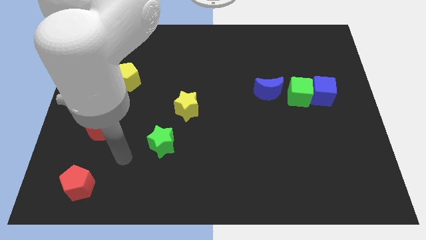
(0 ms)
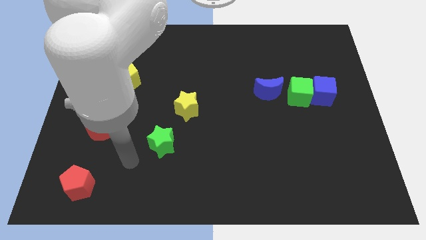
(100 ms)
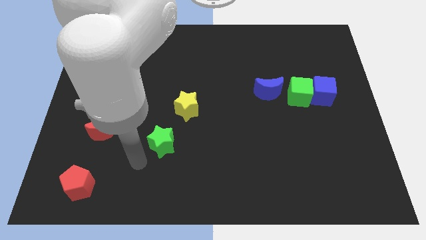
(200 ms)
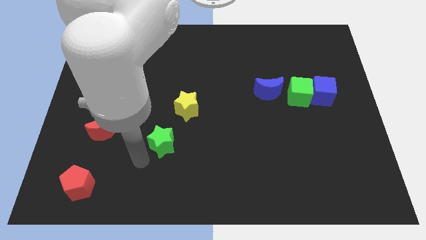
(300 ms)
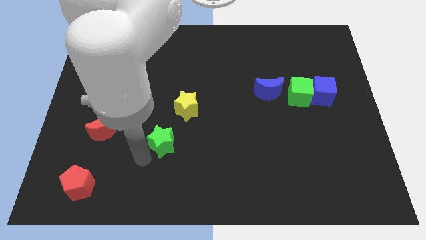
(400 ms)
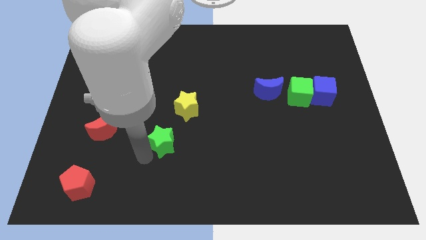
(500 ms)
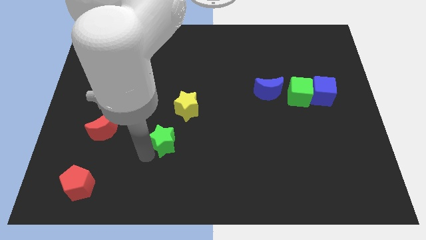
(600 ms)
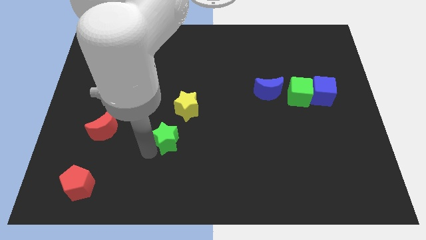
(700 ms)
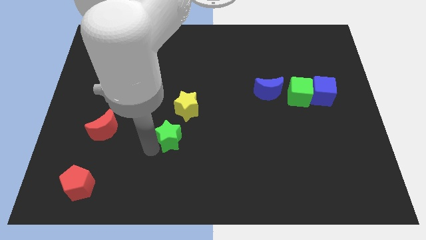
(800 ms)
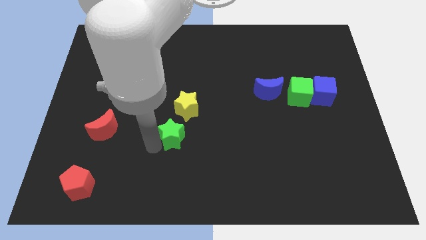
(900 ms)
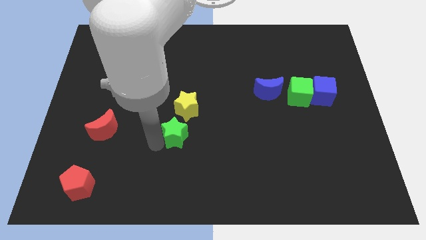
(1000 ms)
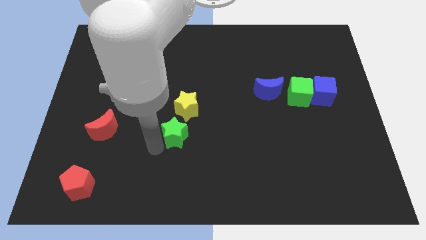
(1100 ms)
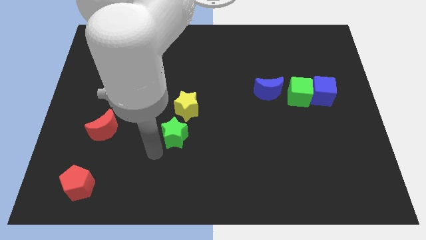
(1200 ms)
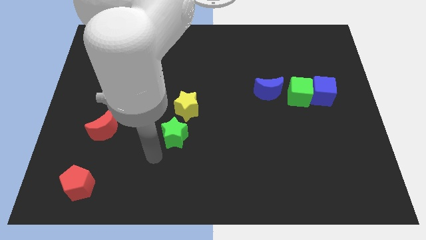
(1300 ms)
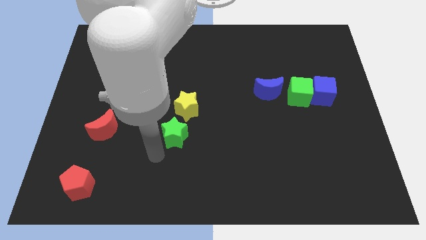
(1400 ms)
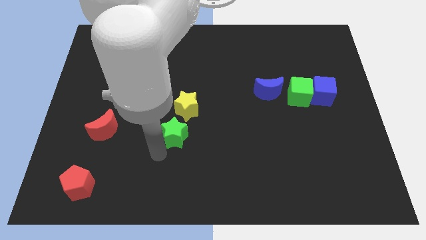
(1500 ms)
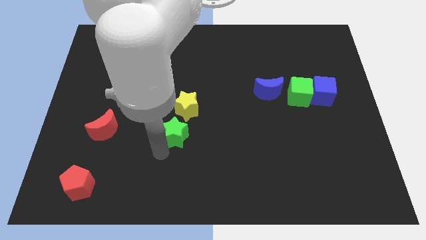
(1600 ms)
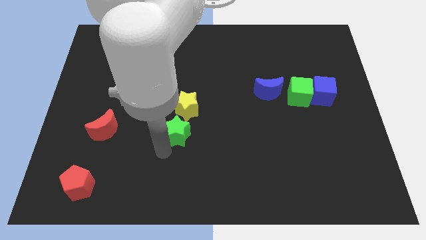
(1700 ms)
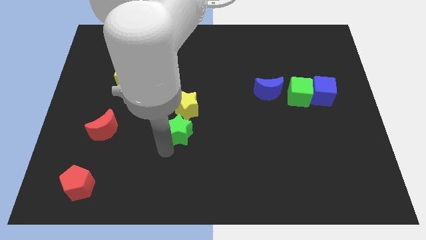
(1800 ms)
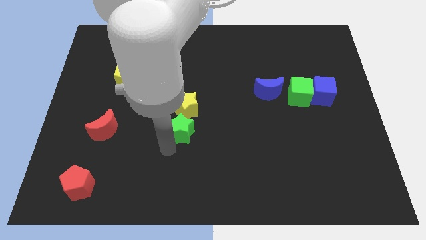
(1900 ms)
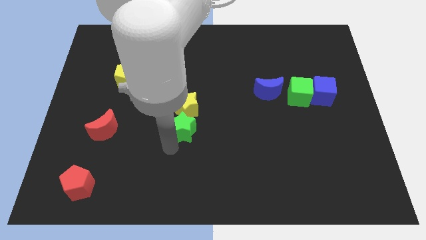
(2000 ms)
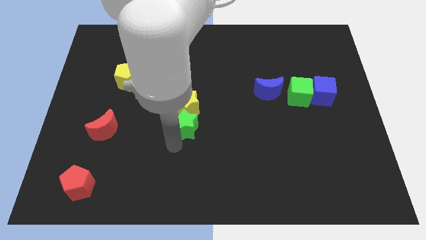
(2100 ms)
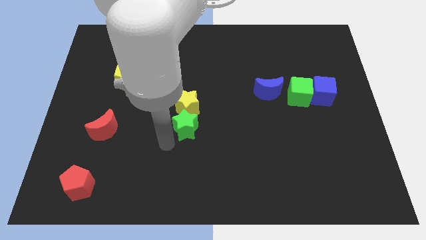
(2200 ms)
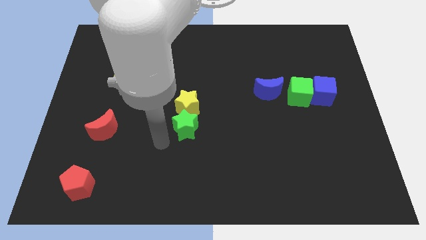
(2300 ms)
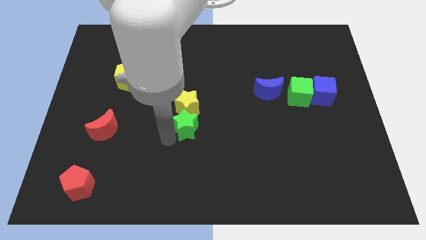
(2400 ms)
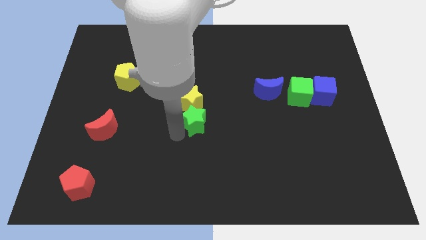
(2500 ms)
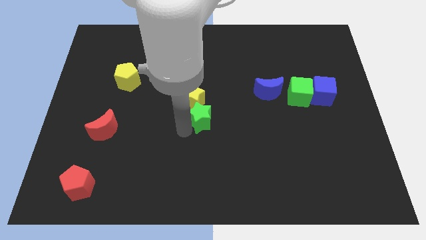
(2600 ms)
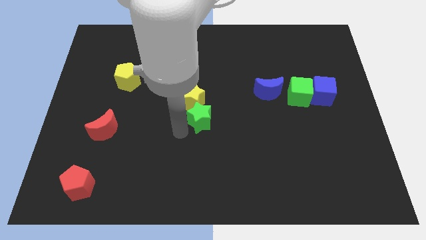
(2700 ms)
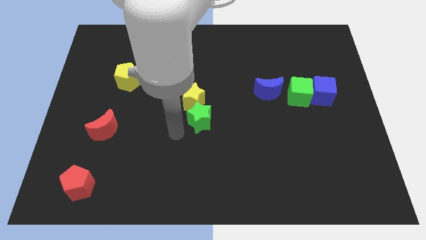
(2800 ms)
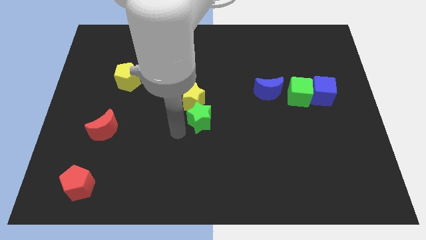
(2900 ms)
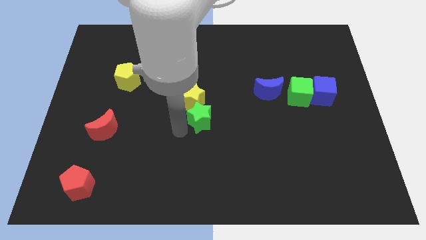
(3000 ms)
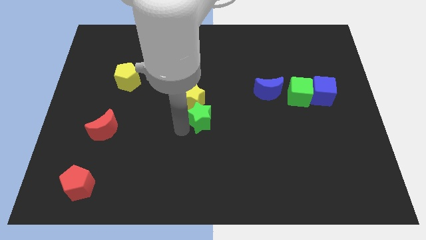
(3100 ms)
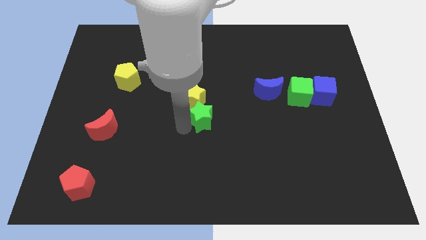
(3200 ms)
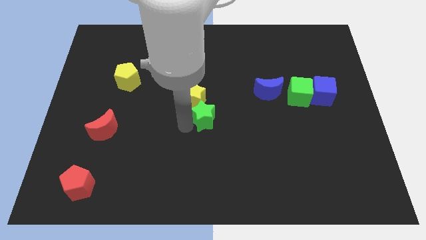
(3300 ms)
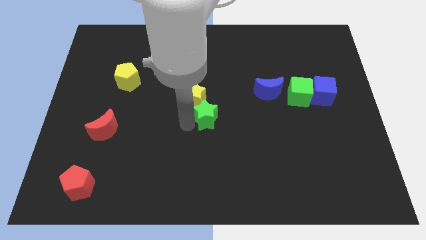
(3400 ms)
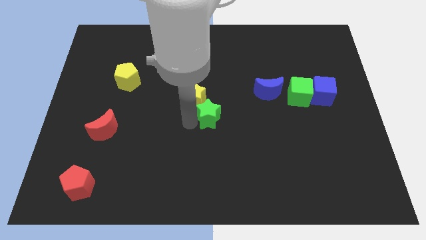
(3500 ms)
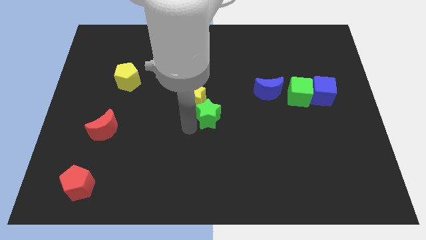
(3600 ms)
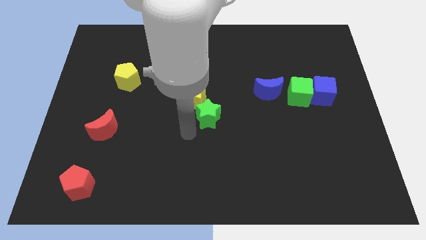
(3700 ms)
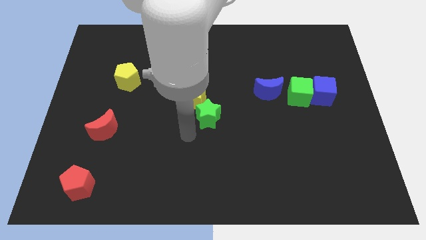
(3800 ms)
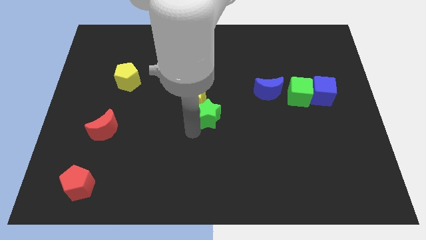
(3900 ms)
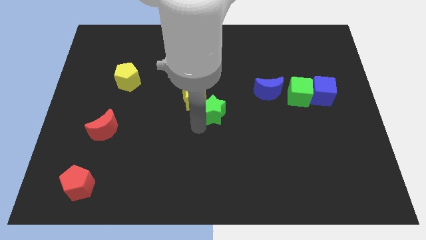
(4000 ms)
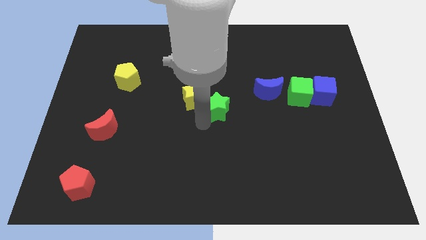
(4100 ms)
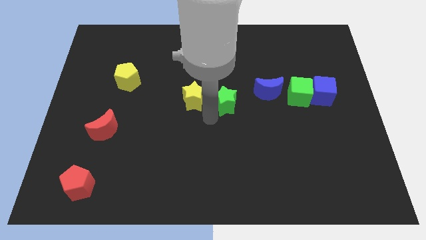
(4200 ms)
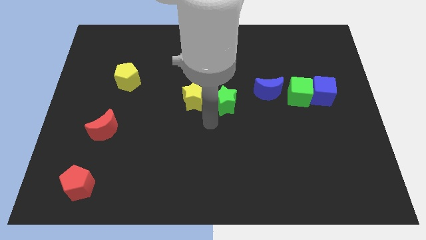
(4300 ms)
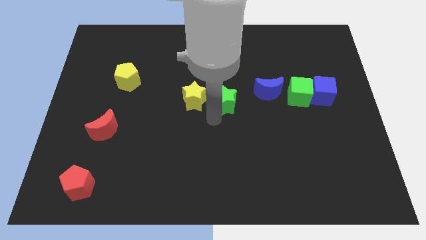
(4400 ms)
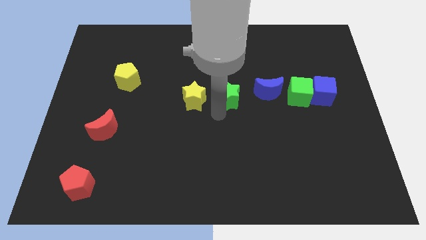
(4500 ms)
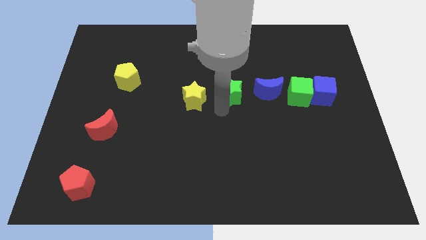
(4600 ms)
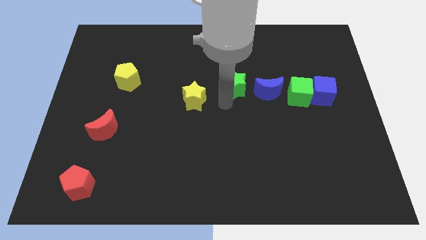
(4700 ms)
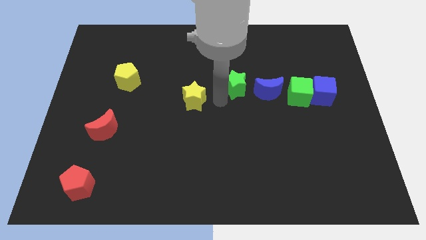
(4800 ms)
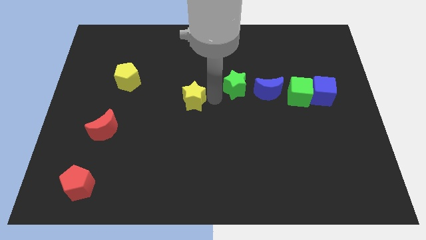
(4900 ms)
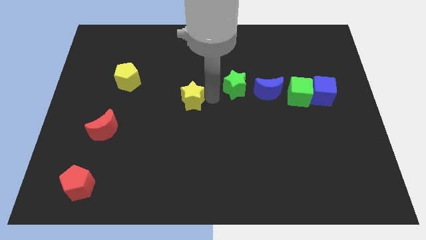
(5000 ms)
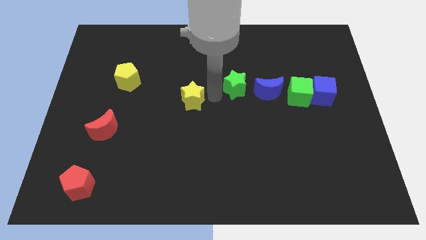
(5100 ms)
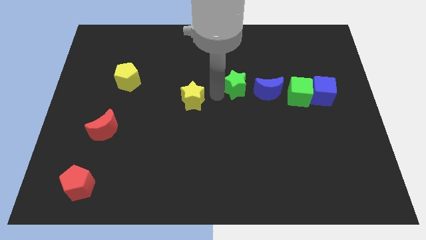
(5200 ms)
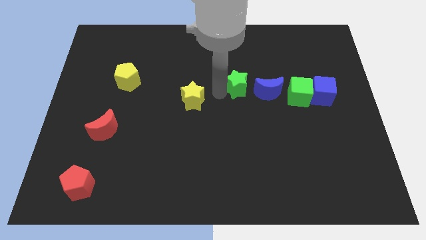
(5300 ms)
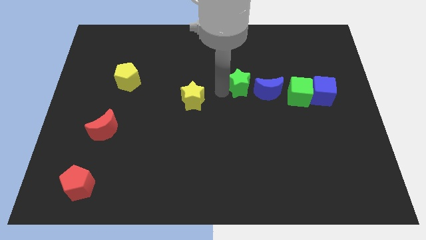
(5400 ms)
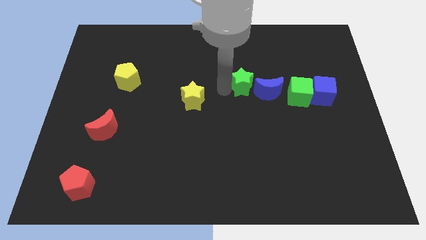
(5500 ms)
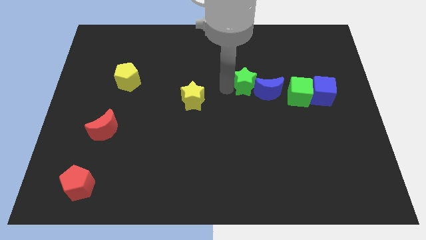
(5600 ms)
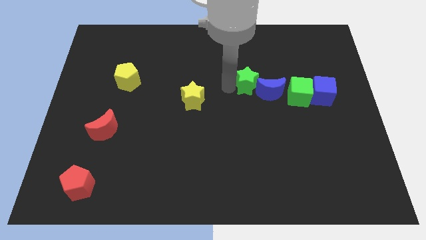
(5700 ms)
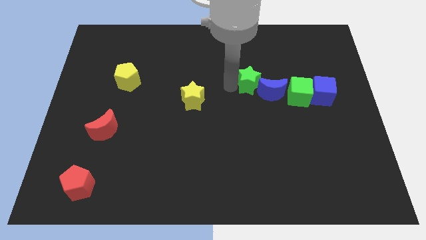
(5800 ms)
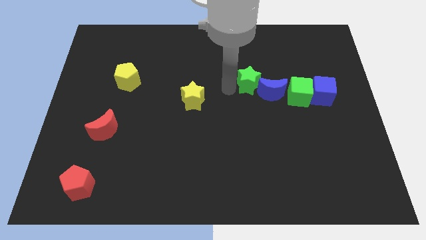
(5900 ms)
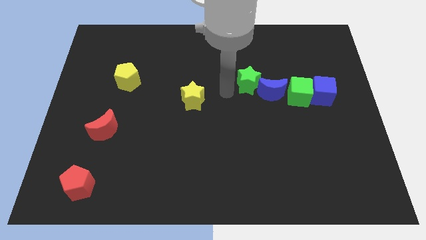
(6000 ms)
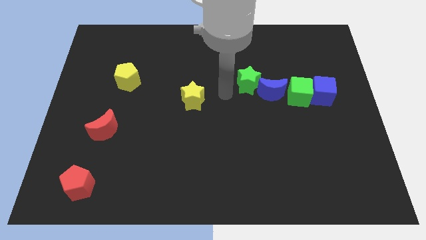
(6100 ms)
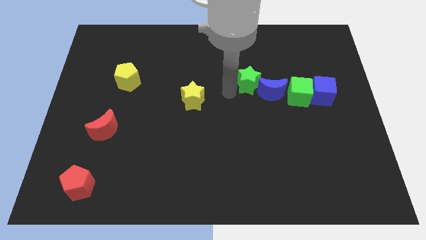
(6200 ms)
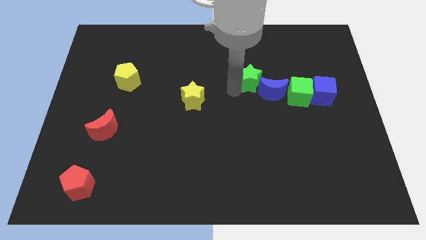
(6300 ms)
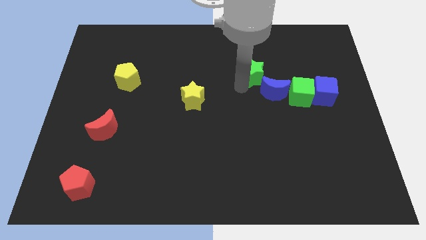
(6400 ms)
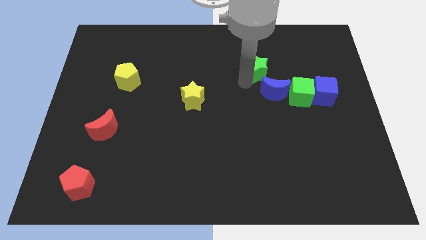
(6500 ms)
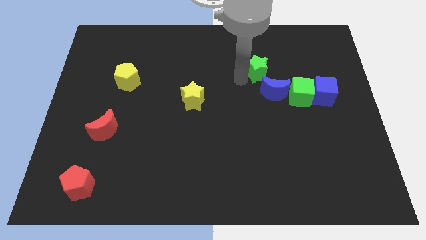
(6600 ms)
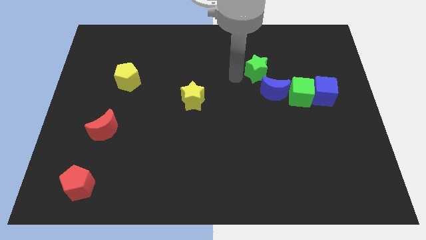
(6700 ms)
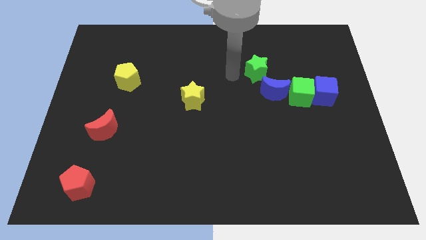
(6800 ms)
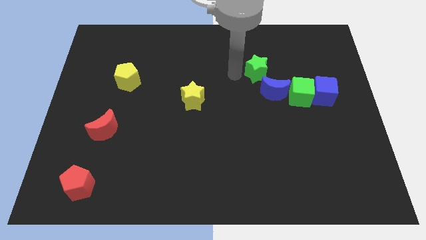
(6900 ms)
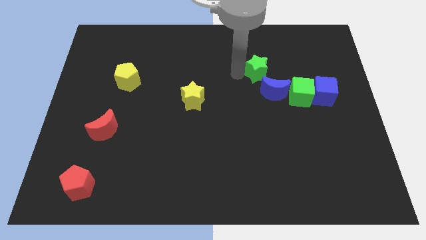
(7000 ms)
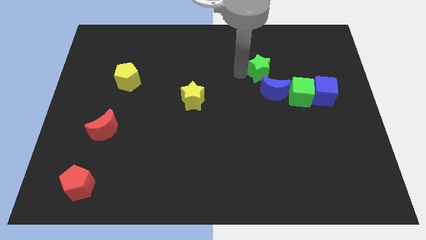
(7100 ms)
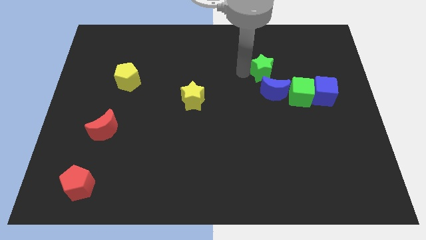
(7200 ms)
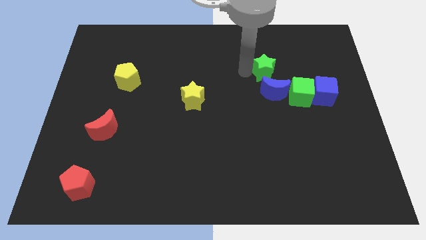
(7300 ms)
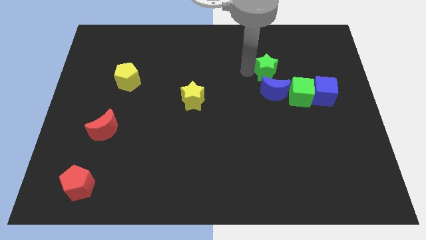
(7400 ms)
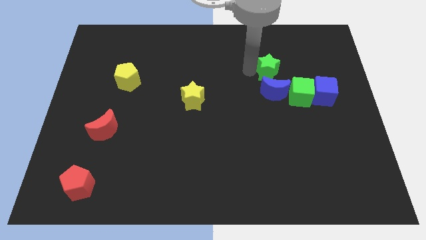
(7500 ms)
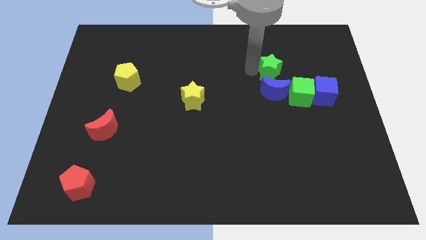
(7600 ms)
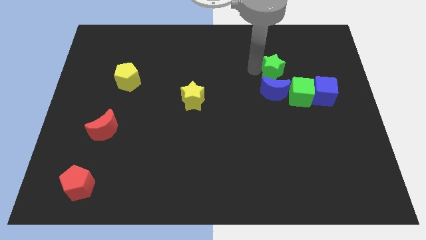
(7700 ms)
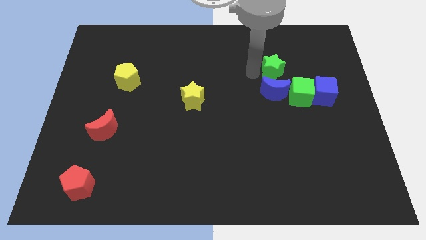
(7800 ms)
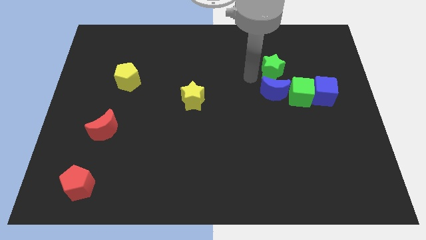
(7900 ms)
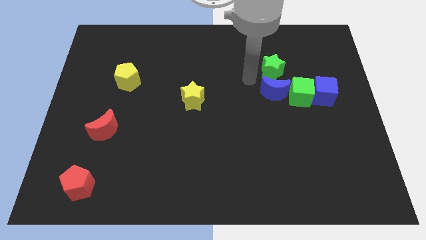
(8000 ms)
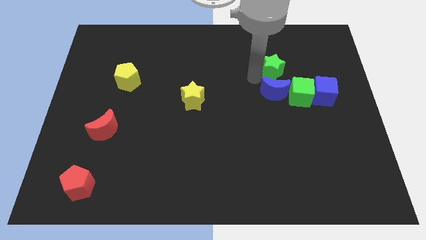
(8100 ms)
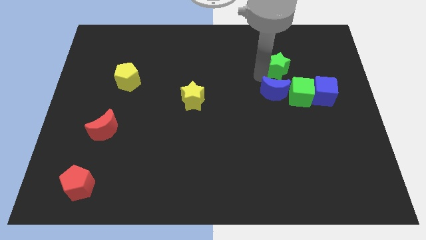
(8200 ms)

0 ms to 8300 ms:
slide the green star above the green cube
